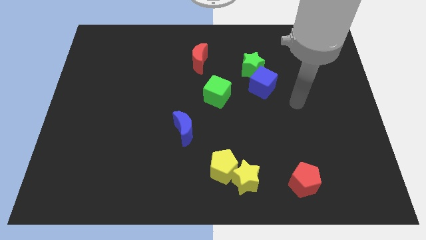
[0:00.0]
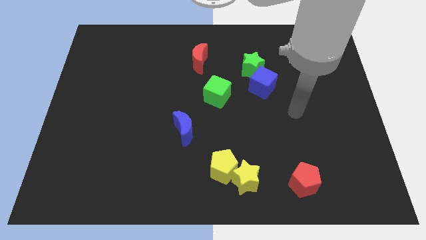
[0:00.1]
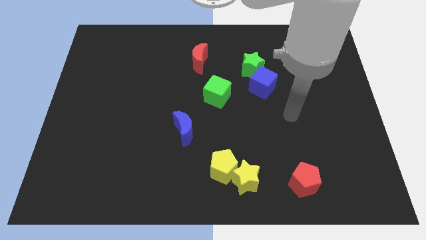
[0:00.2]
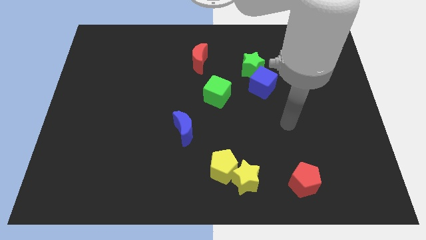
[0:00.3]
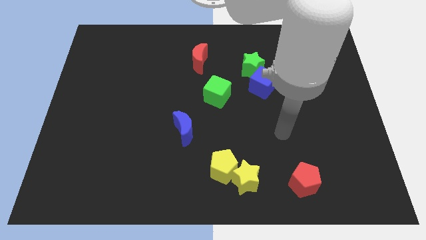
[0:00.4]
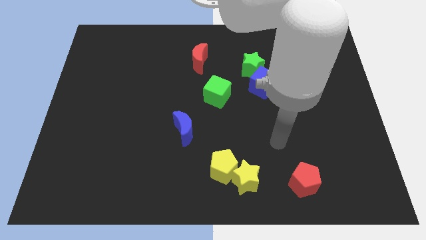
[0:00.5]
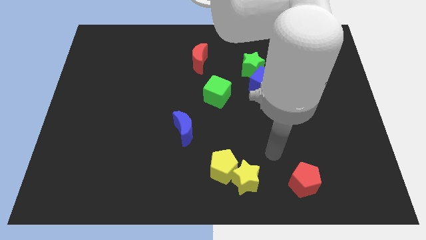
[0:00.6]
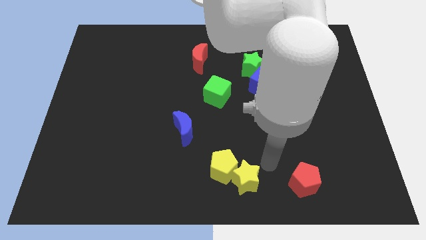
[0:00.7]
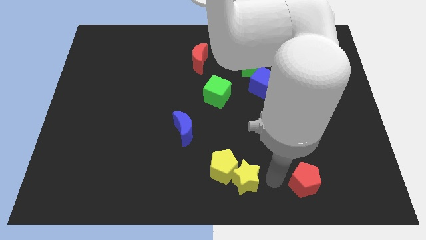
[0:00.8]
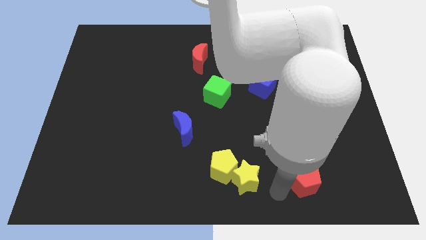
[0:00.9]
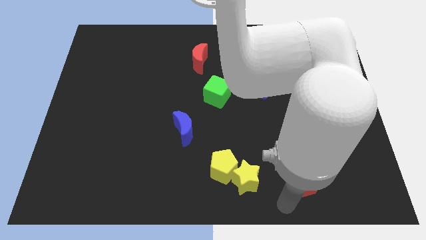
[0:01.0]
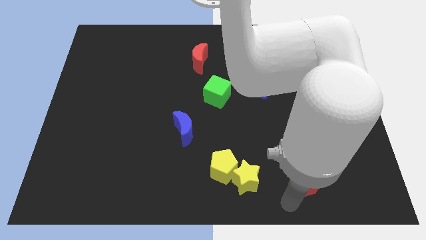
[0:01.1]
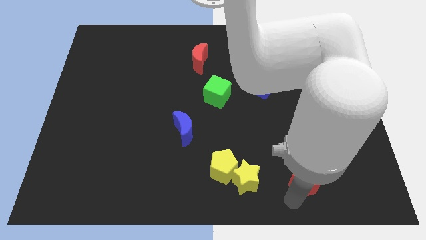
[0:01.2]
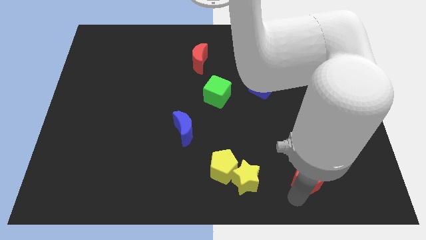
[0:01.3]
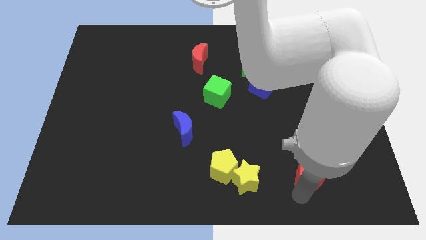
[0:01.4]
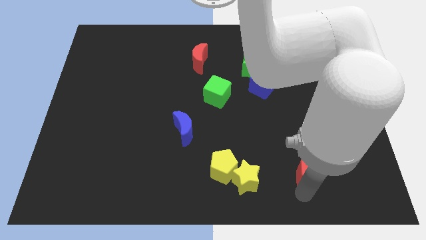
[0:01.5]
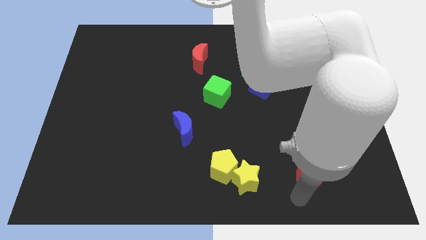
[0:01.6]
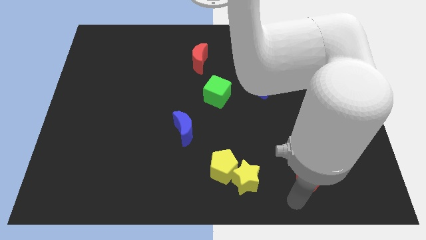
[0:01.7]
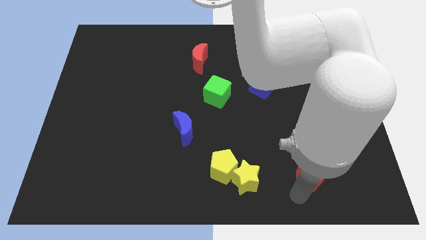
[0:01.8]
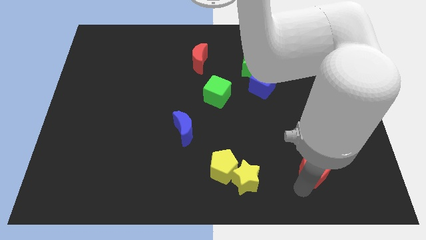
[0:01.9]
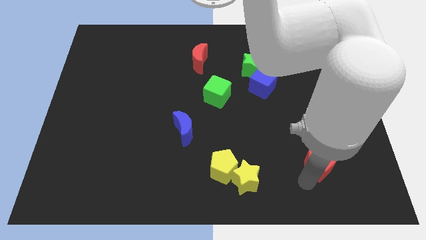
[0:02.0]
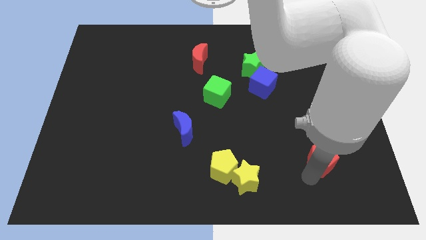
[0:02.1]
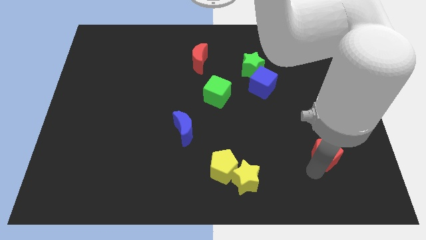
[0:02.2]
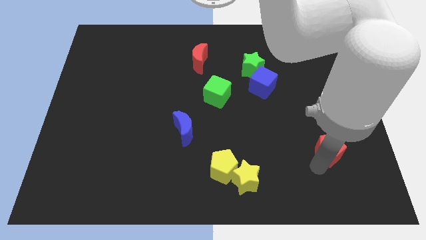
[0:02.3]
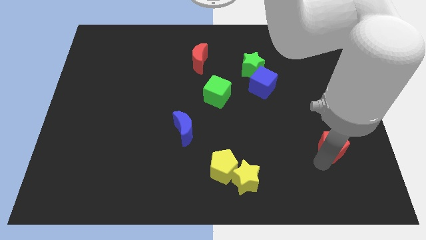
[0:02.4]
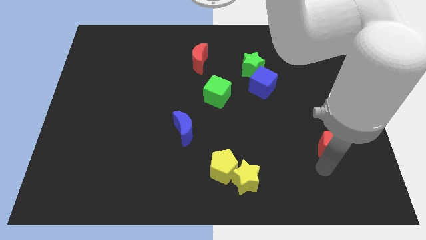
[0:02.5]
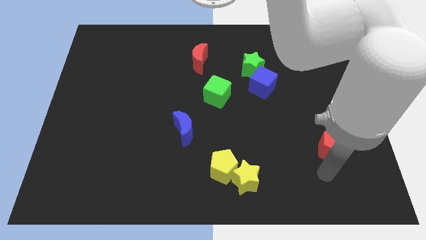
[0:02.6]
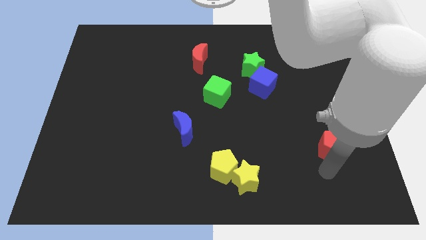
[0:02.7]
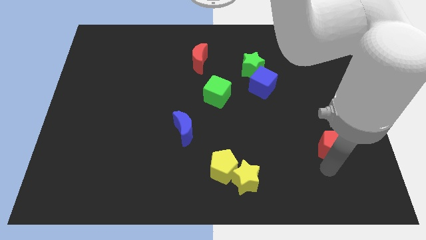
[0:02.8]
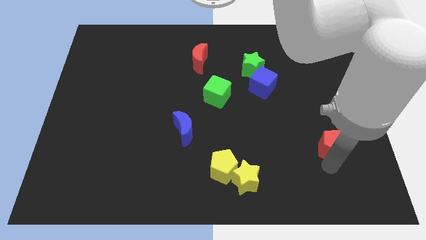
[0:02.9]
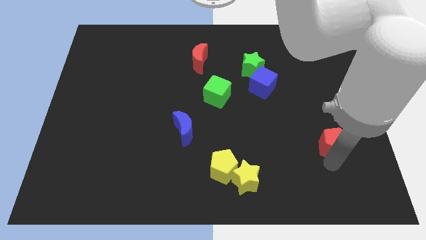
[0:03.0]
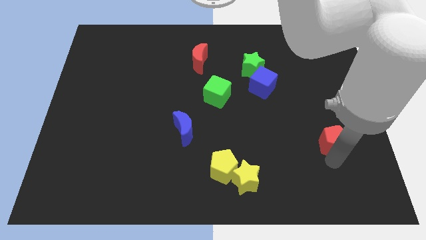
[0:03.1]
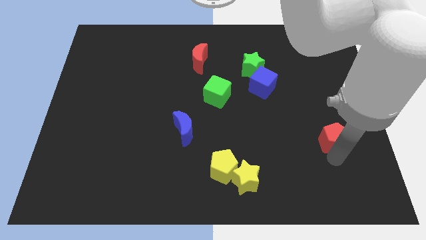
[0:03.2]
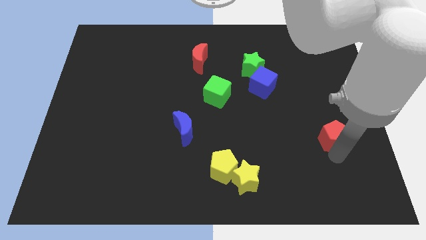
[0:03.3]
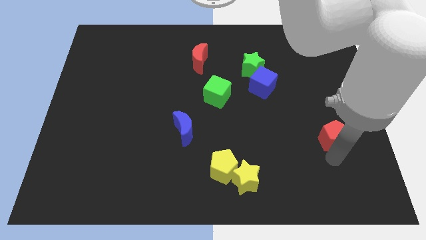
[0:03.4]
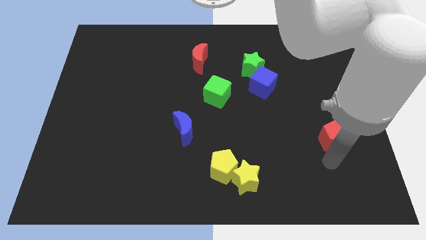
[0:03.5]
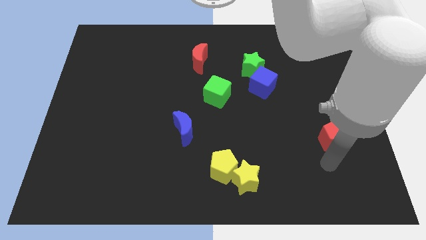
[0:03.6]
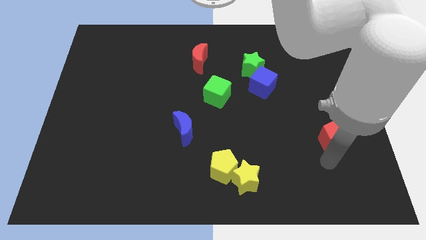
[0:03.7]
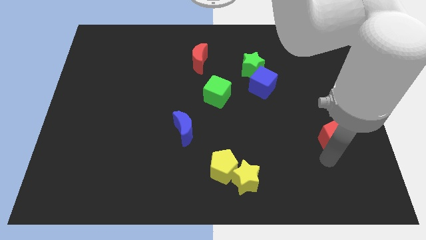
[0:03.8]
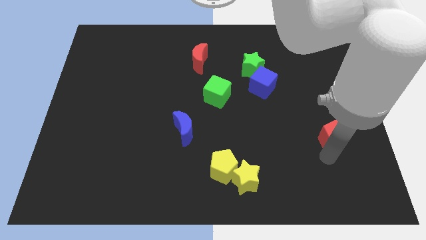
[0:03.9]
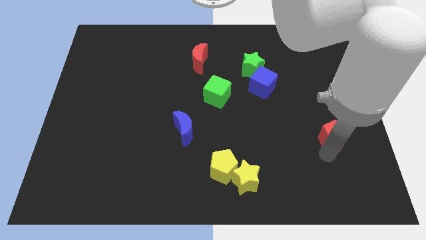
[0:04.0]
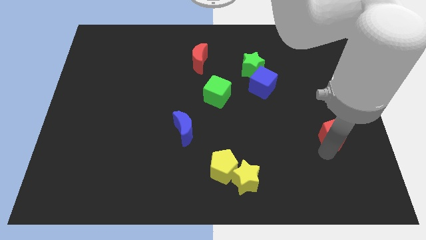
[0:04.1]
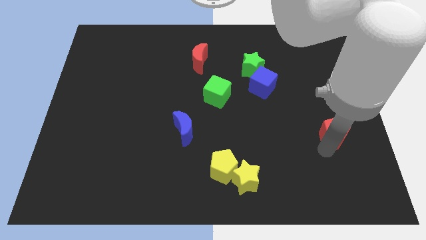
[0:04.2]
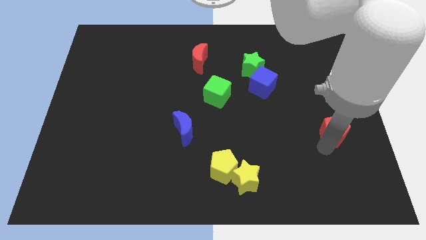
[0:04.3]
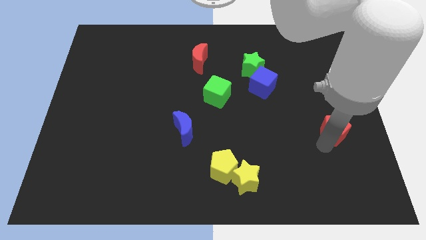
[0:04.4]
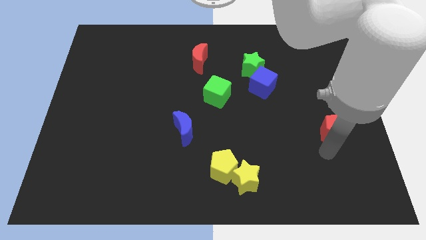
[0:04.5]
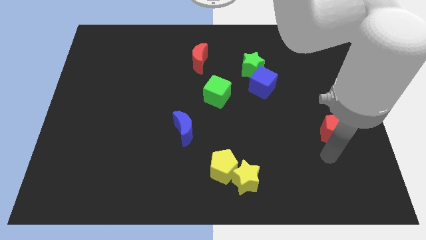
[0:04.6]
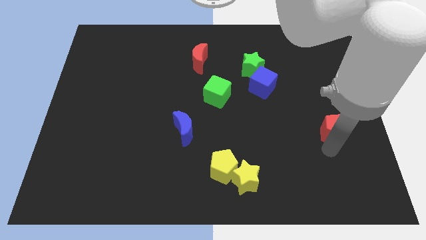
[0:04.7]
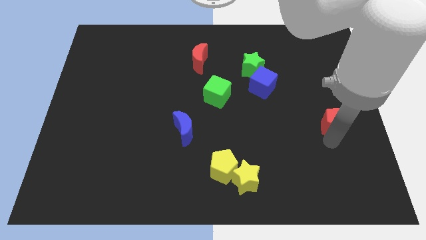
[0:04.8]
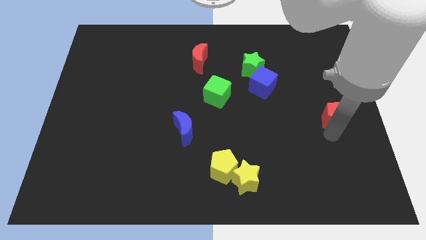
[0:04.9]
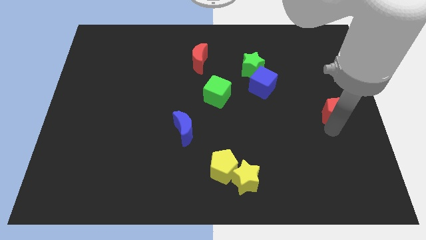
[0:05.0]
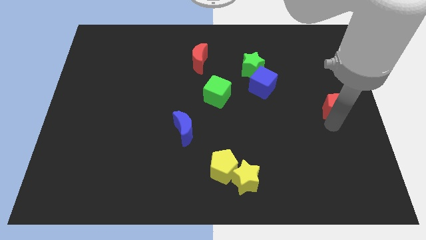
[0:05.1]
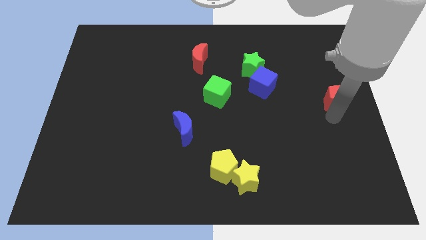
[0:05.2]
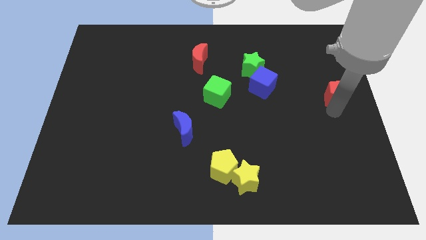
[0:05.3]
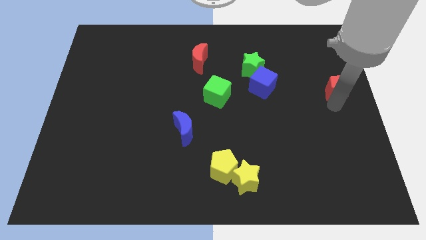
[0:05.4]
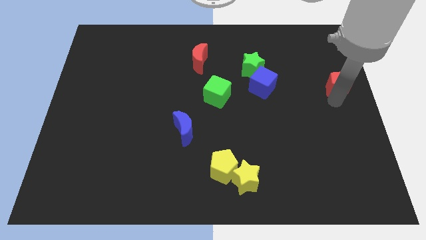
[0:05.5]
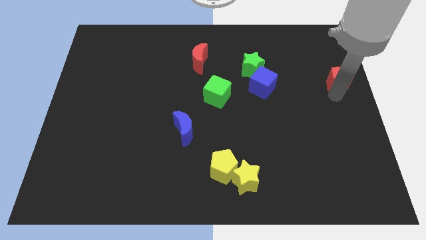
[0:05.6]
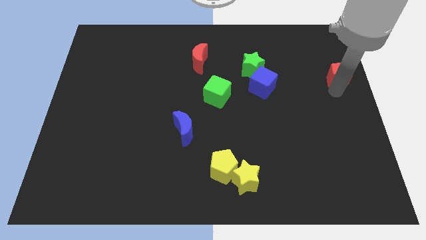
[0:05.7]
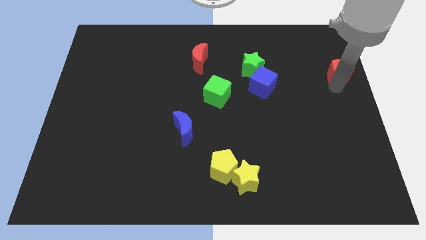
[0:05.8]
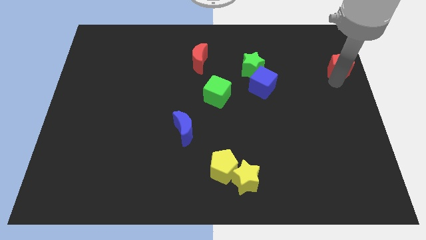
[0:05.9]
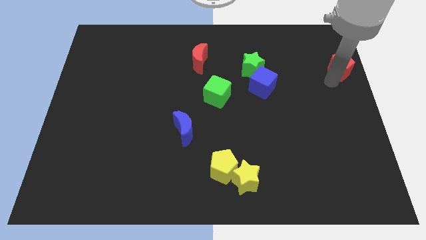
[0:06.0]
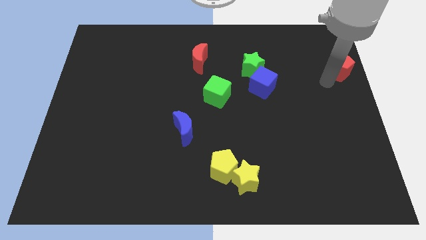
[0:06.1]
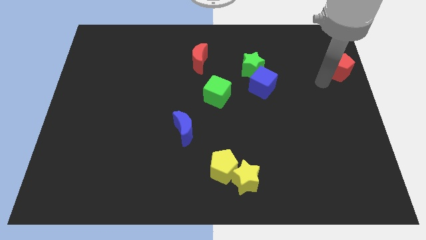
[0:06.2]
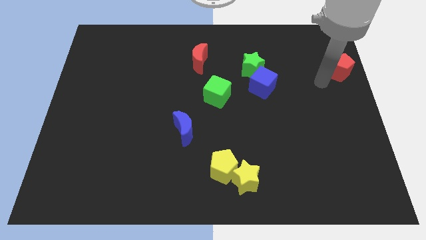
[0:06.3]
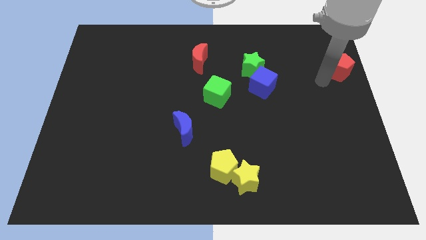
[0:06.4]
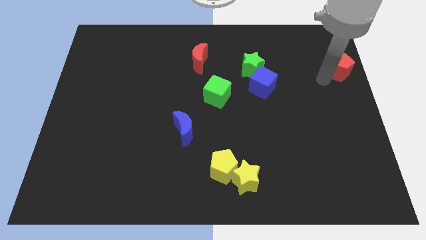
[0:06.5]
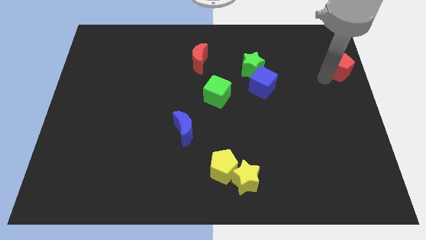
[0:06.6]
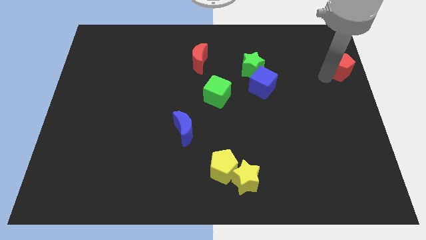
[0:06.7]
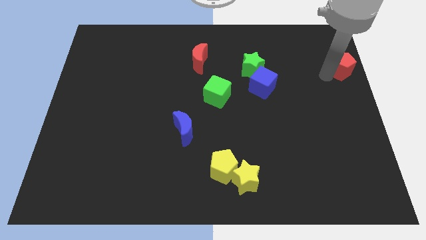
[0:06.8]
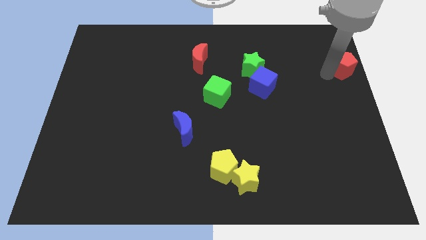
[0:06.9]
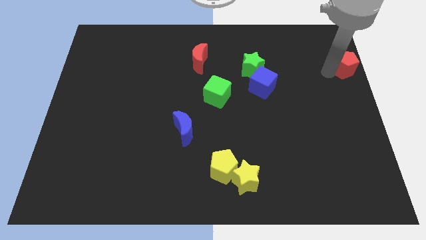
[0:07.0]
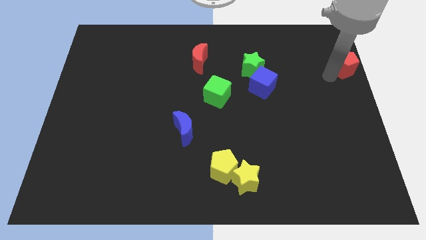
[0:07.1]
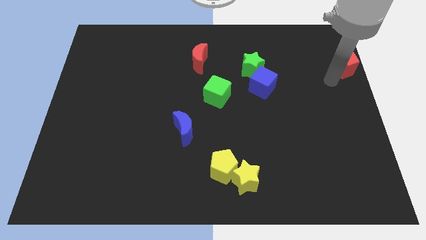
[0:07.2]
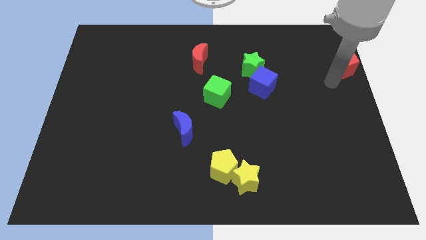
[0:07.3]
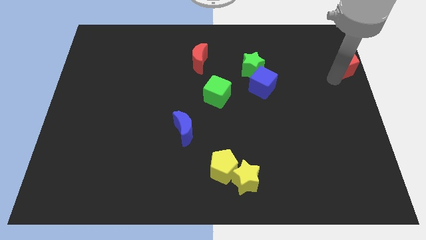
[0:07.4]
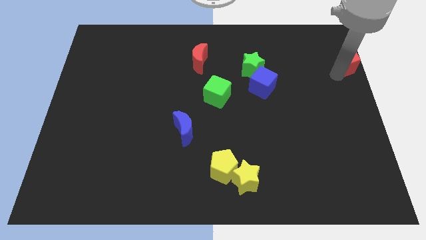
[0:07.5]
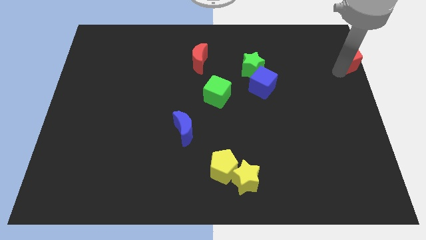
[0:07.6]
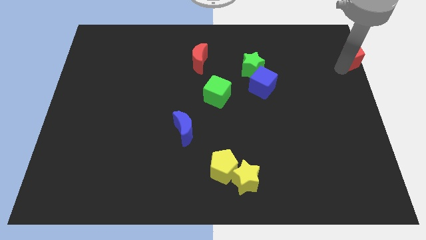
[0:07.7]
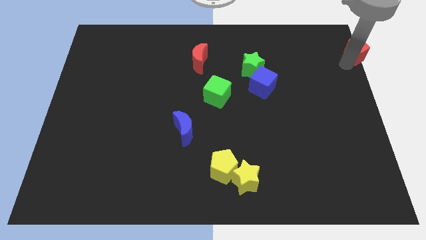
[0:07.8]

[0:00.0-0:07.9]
slide the red pentagon to the top right of the board
